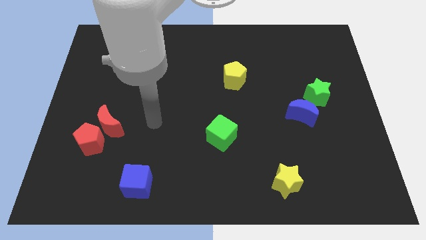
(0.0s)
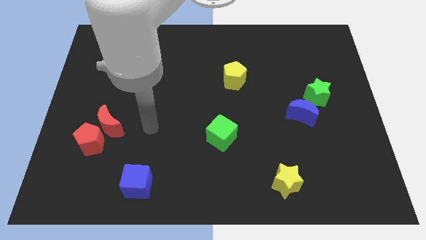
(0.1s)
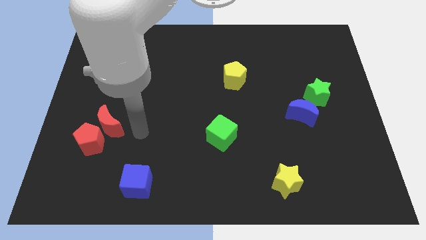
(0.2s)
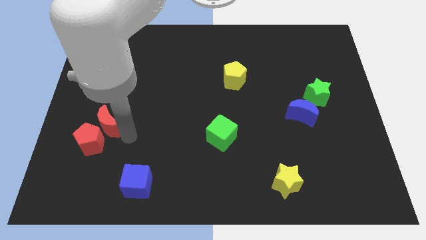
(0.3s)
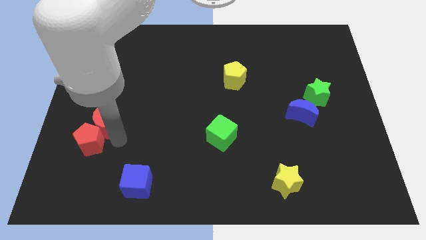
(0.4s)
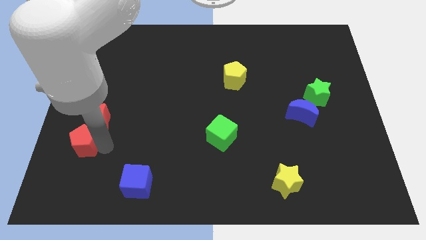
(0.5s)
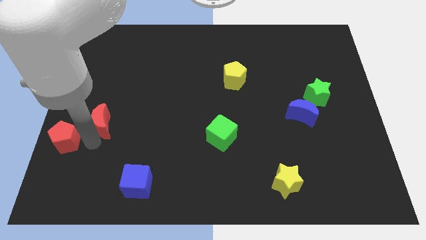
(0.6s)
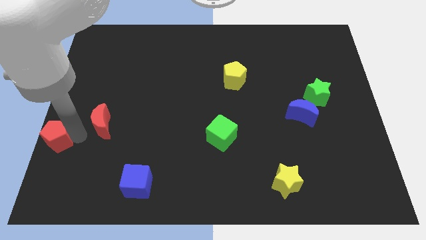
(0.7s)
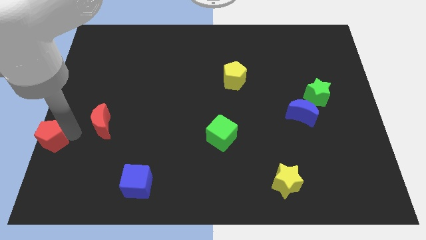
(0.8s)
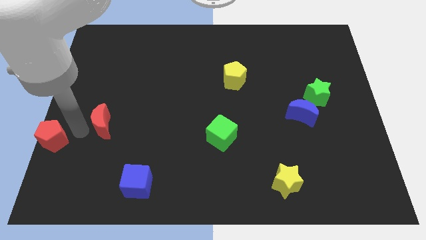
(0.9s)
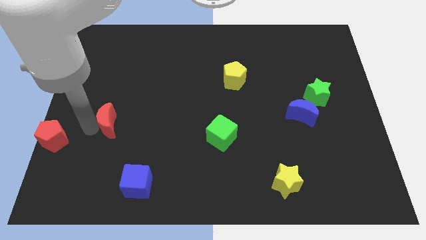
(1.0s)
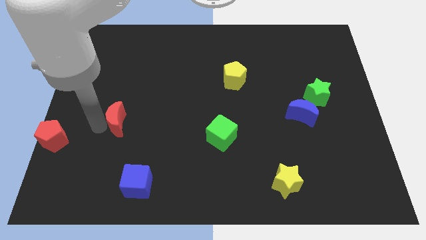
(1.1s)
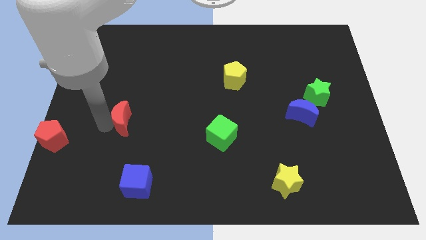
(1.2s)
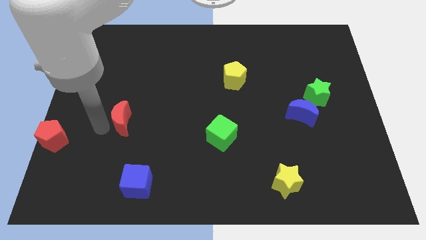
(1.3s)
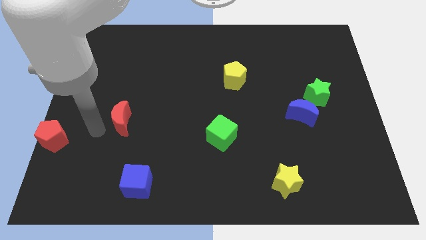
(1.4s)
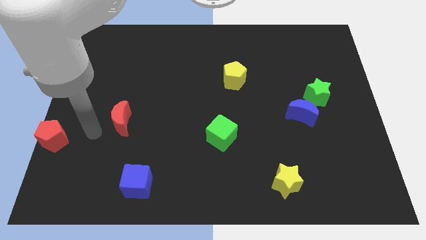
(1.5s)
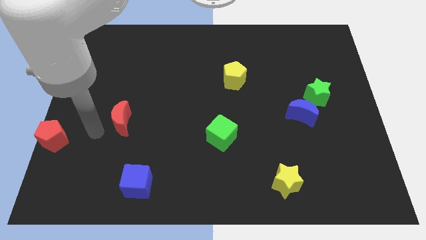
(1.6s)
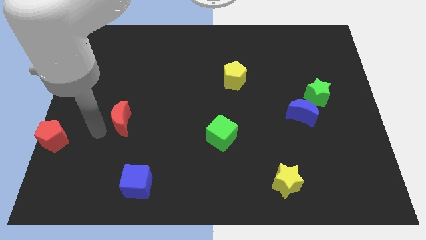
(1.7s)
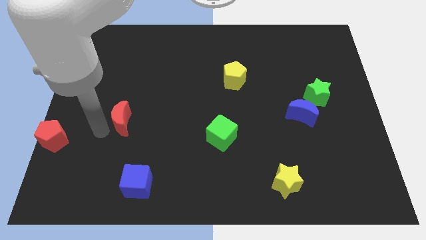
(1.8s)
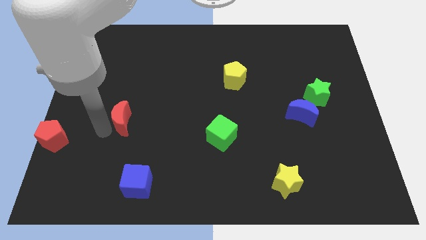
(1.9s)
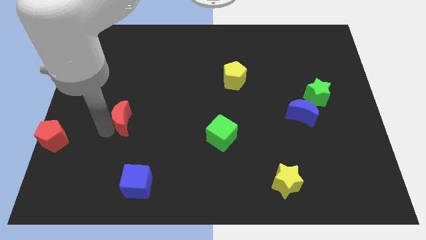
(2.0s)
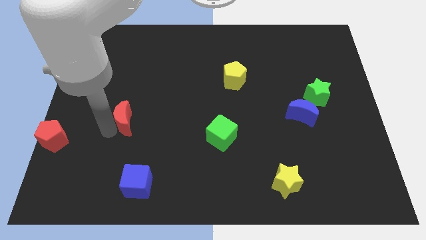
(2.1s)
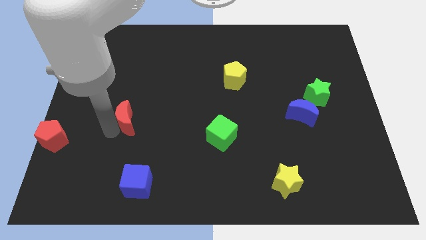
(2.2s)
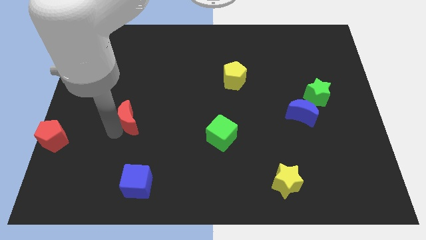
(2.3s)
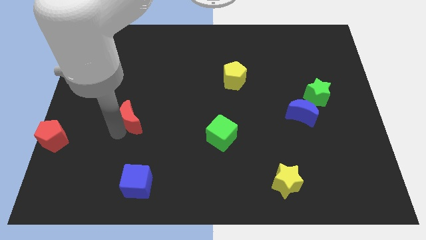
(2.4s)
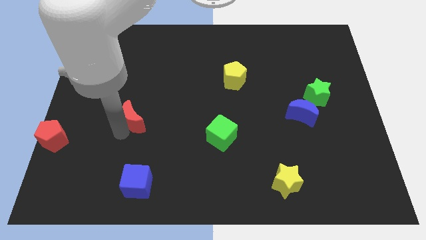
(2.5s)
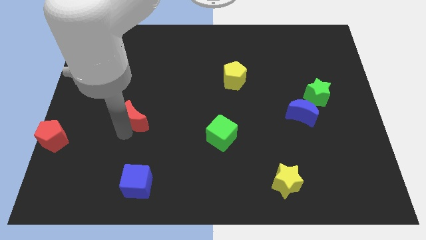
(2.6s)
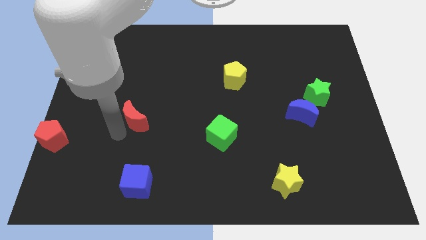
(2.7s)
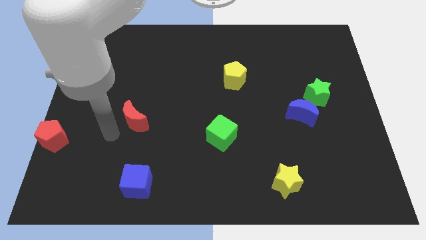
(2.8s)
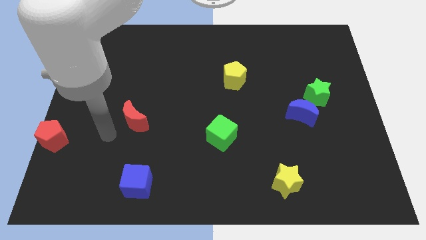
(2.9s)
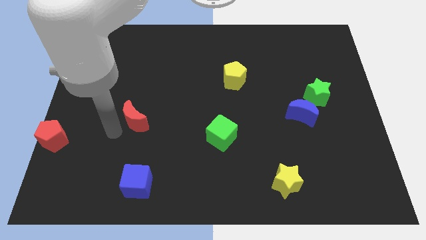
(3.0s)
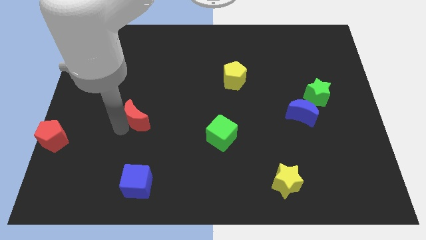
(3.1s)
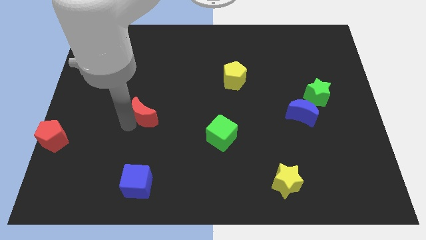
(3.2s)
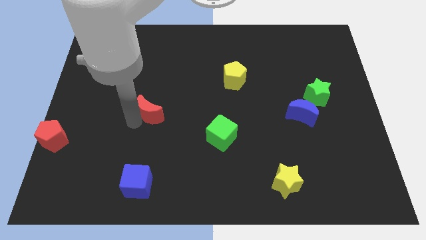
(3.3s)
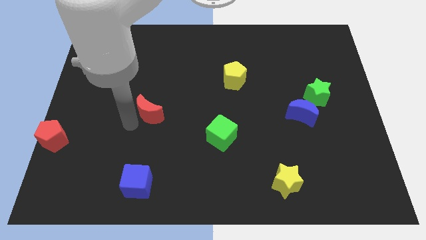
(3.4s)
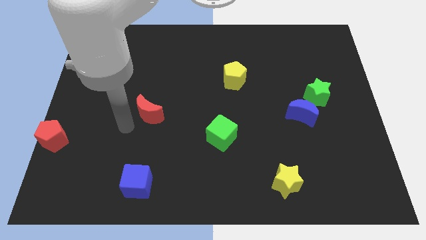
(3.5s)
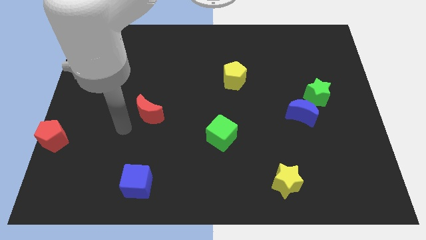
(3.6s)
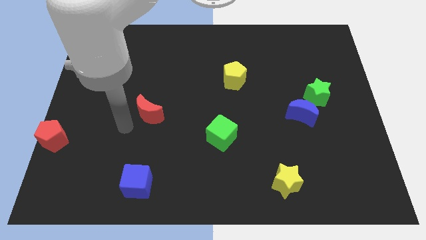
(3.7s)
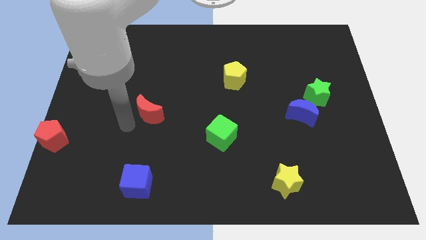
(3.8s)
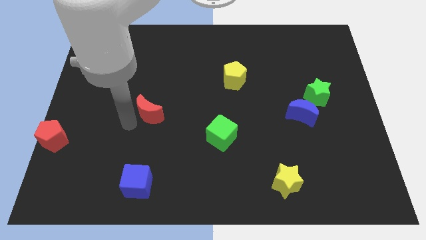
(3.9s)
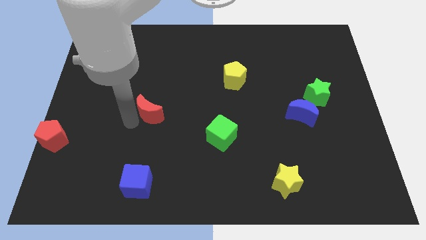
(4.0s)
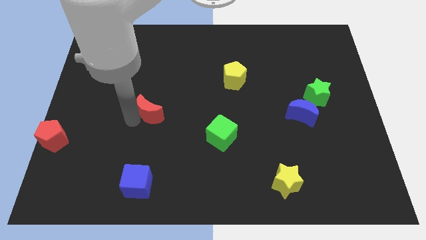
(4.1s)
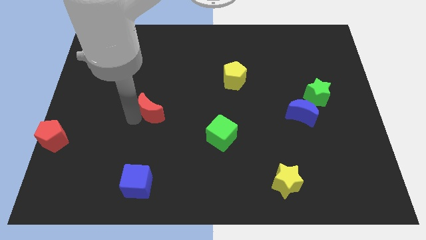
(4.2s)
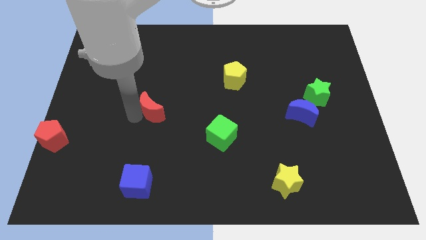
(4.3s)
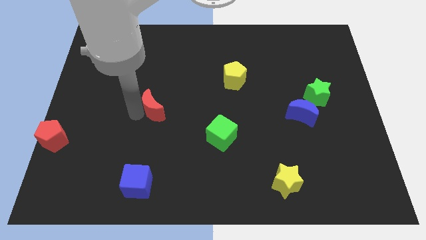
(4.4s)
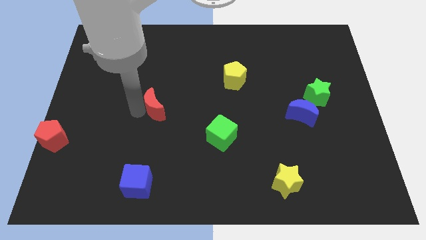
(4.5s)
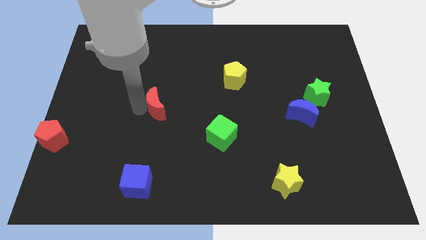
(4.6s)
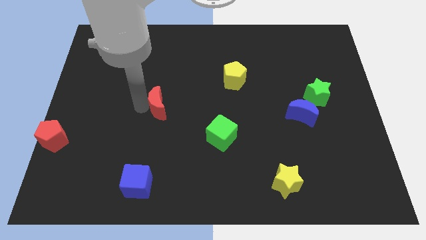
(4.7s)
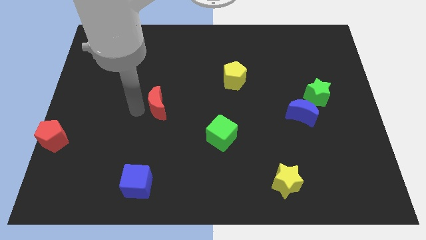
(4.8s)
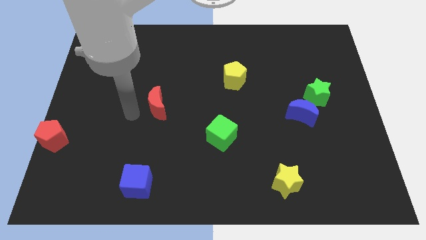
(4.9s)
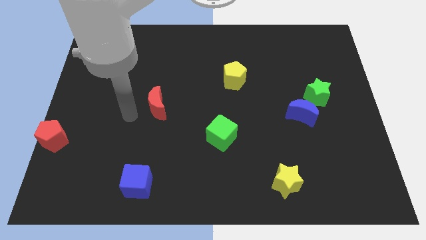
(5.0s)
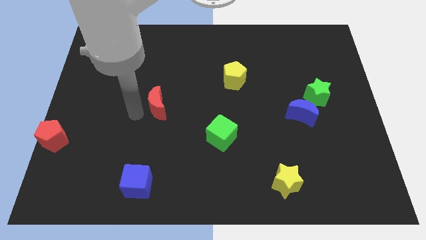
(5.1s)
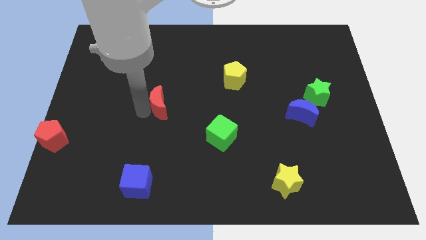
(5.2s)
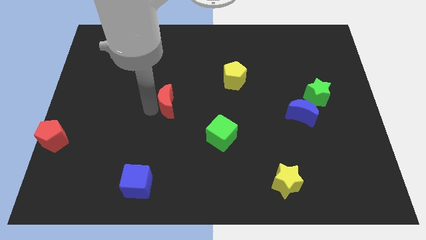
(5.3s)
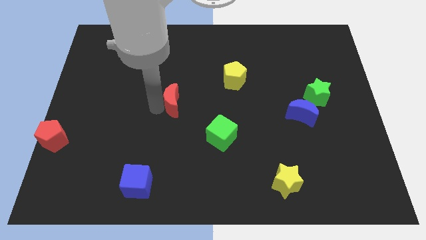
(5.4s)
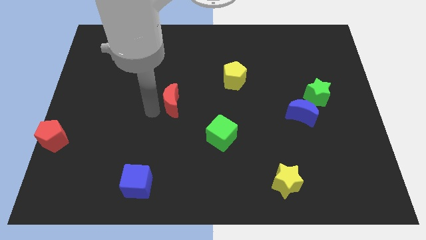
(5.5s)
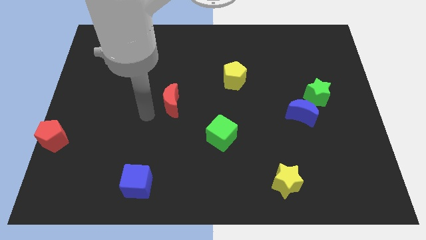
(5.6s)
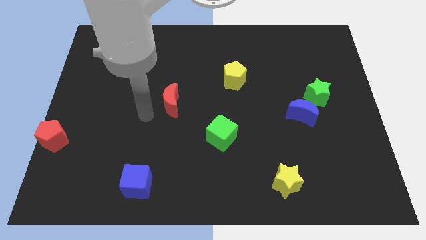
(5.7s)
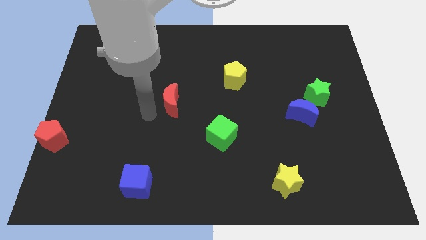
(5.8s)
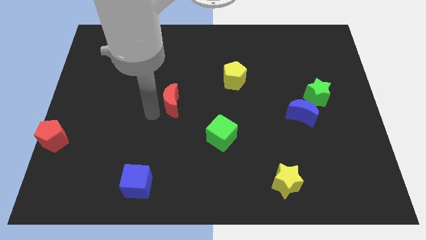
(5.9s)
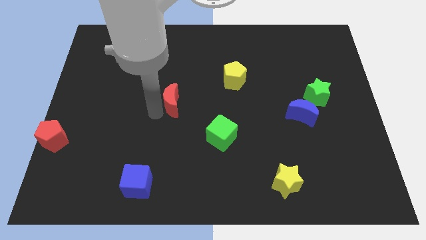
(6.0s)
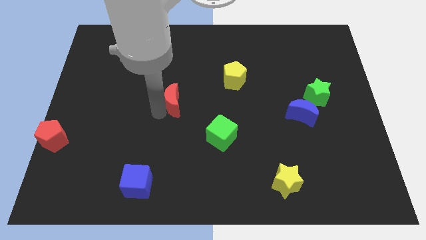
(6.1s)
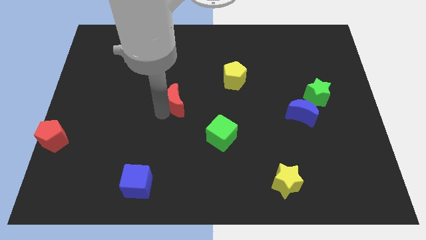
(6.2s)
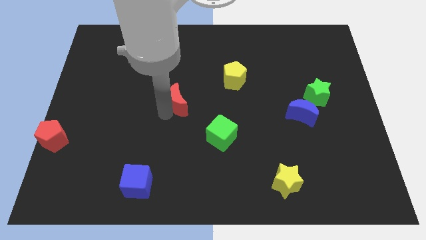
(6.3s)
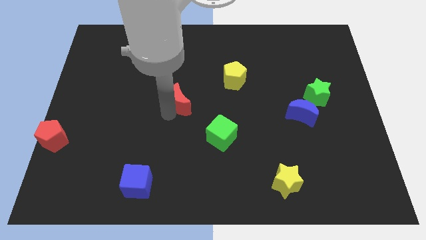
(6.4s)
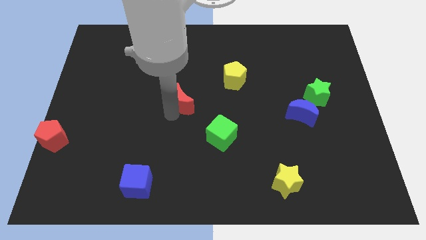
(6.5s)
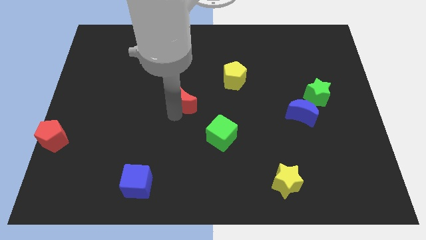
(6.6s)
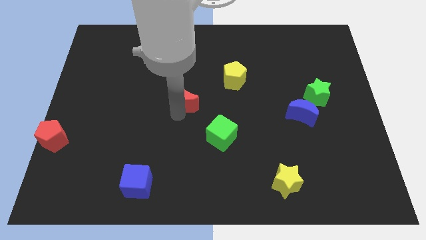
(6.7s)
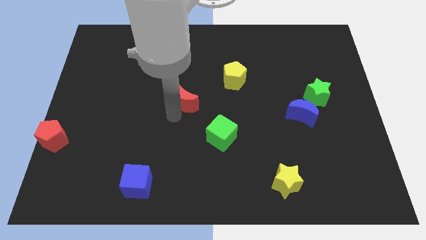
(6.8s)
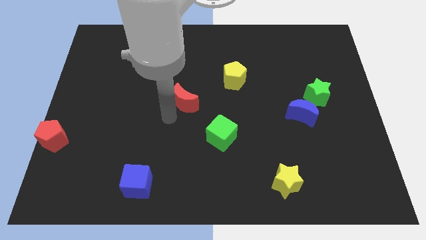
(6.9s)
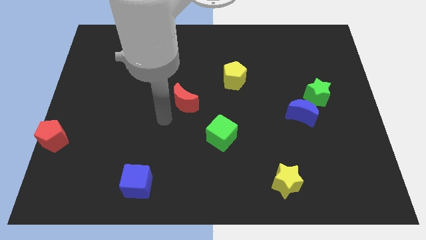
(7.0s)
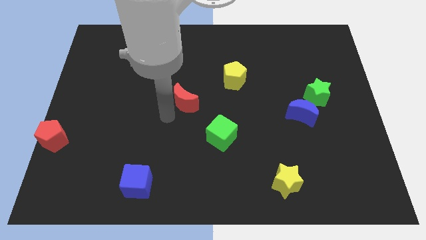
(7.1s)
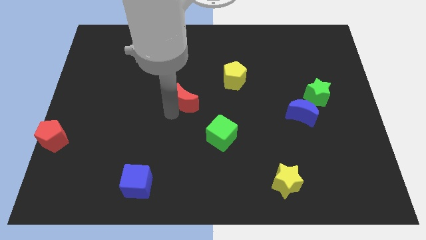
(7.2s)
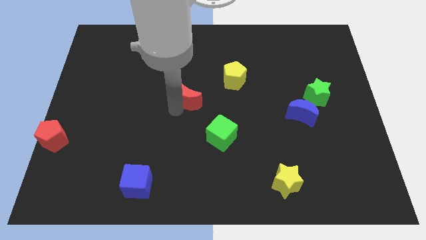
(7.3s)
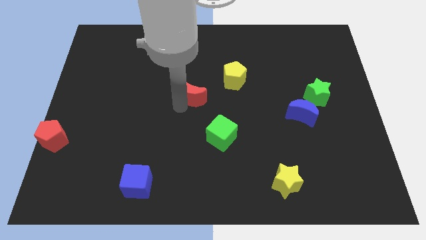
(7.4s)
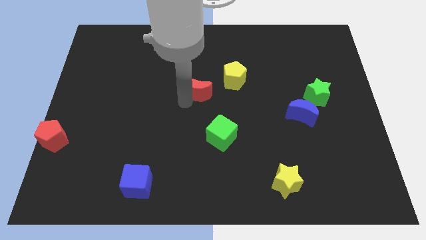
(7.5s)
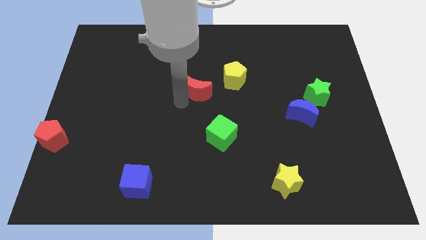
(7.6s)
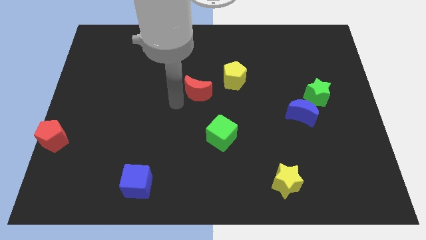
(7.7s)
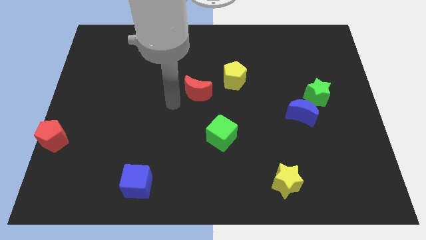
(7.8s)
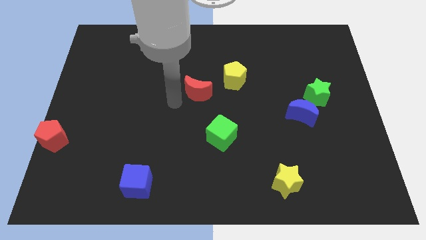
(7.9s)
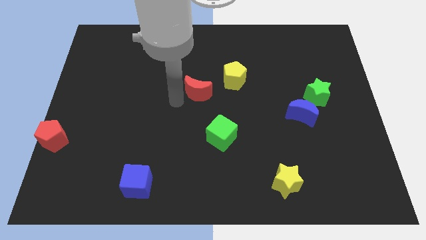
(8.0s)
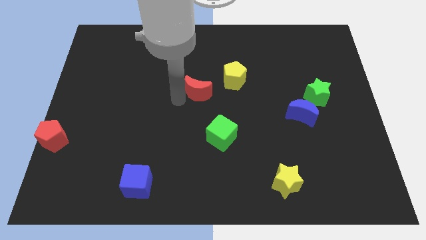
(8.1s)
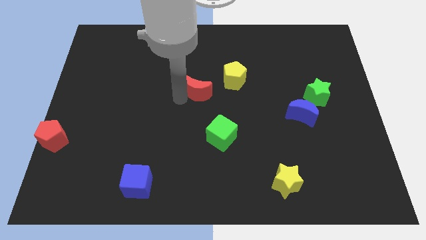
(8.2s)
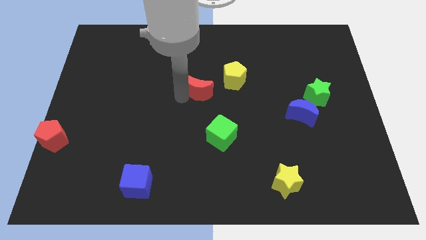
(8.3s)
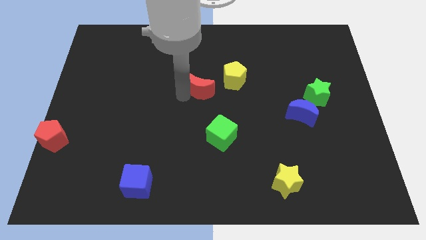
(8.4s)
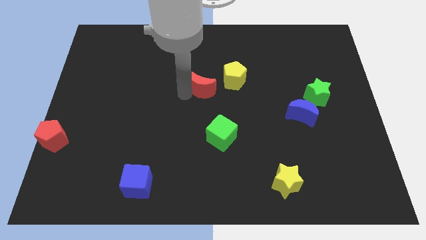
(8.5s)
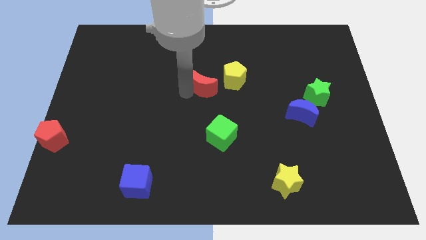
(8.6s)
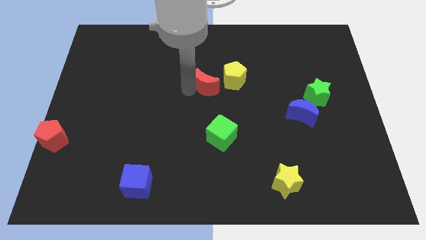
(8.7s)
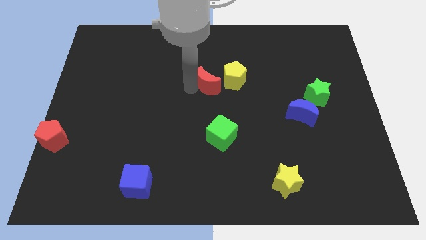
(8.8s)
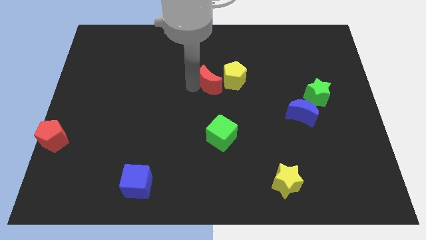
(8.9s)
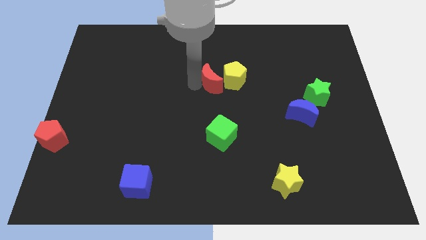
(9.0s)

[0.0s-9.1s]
slide the red moon next to the yellow pentagon
